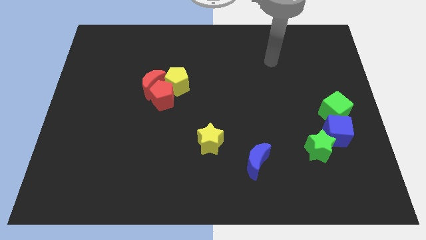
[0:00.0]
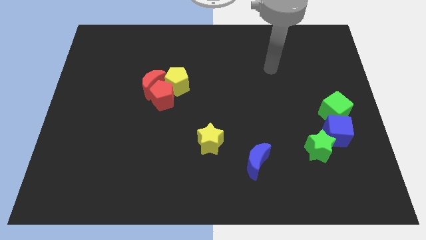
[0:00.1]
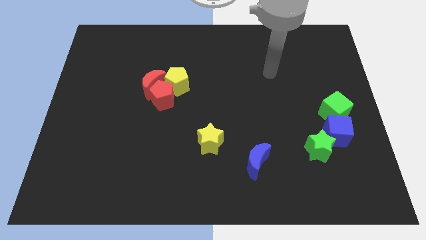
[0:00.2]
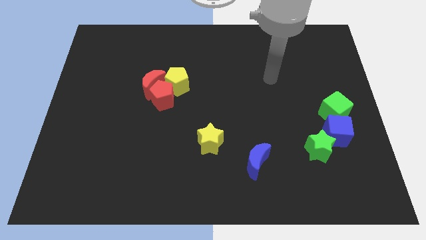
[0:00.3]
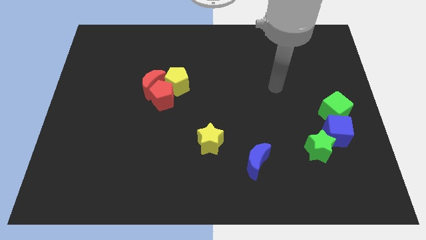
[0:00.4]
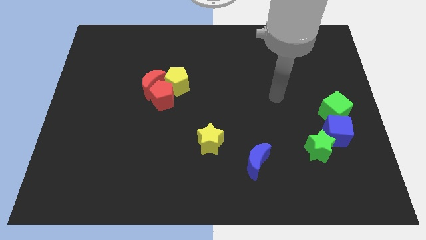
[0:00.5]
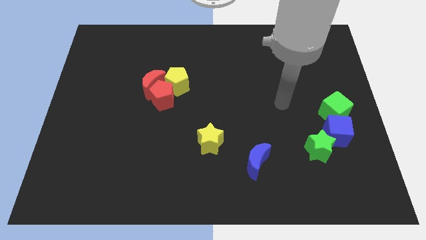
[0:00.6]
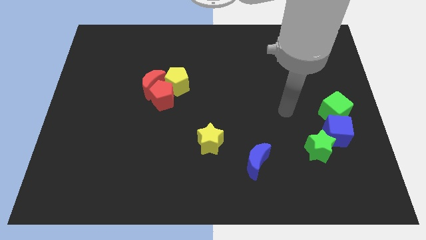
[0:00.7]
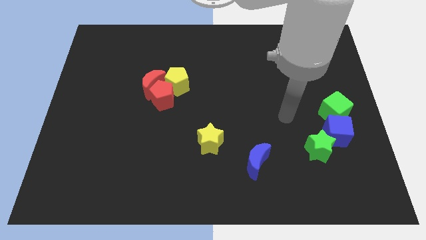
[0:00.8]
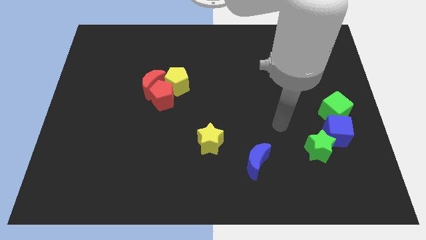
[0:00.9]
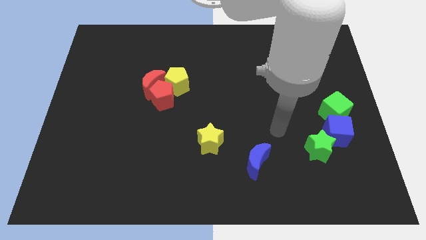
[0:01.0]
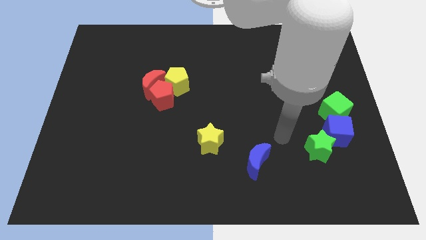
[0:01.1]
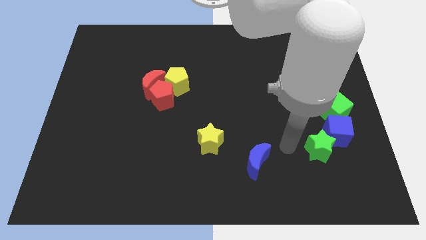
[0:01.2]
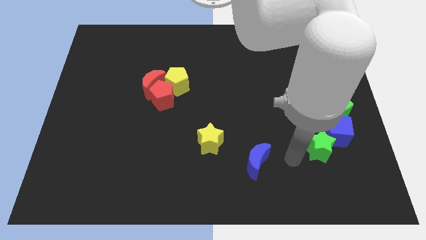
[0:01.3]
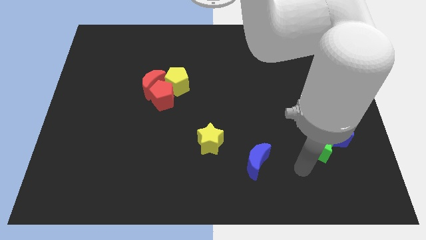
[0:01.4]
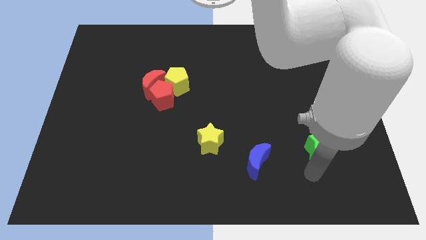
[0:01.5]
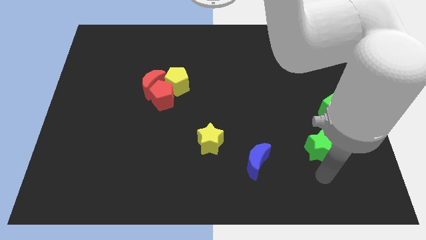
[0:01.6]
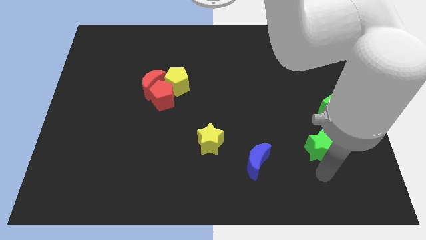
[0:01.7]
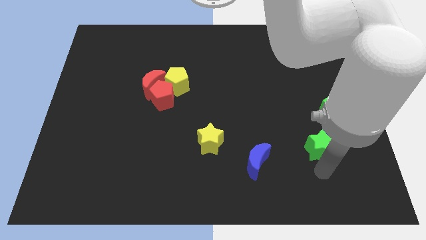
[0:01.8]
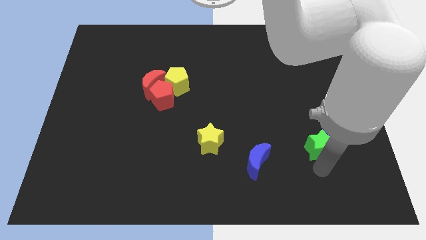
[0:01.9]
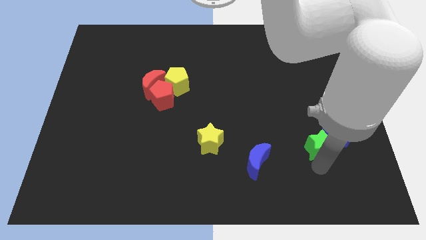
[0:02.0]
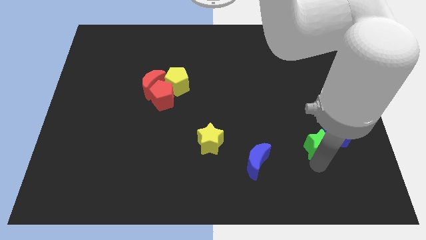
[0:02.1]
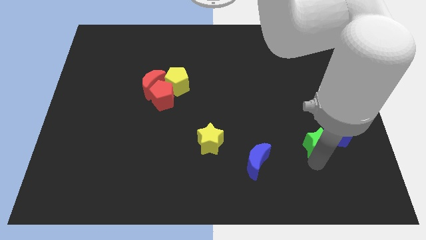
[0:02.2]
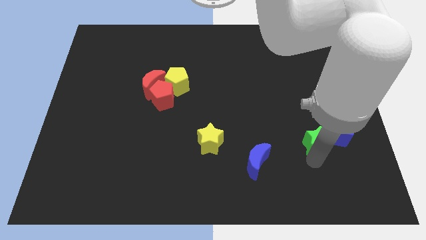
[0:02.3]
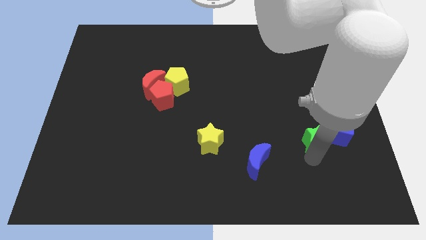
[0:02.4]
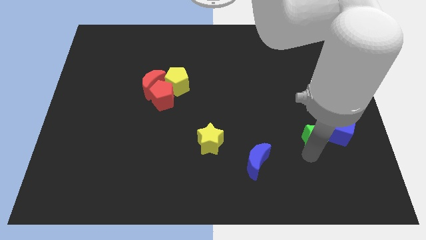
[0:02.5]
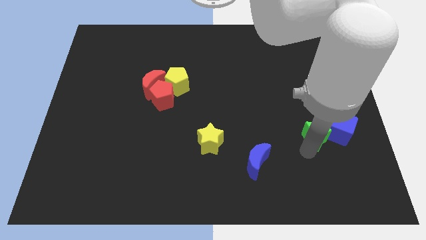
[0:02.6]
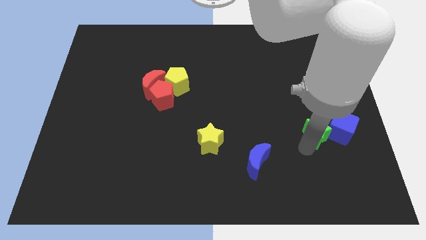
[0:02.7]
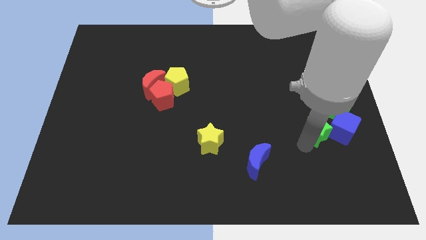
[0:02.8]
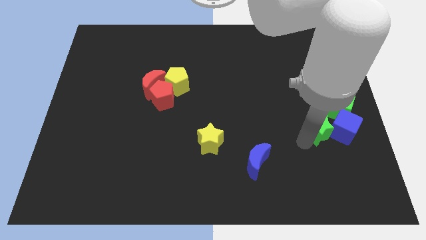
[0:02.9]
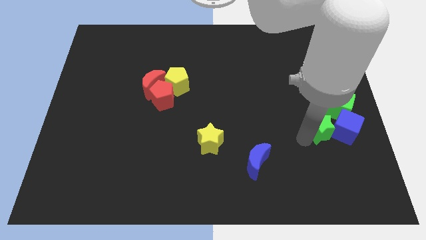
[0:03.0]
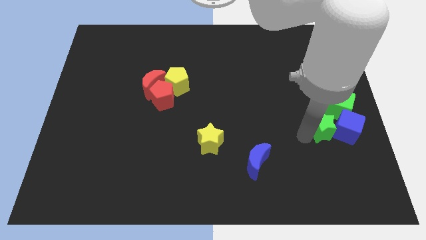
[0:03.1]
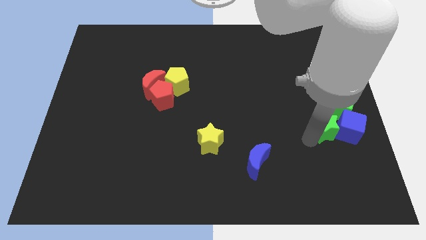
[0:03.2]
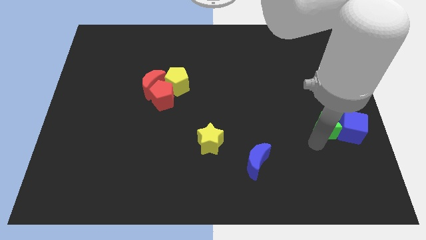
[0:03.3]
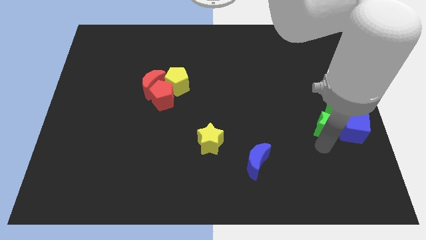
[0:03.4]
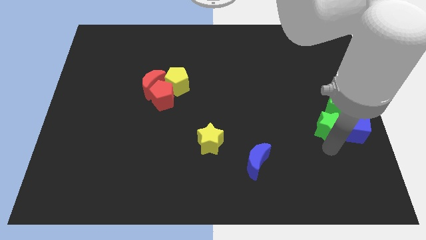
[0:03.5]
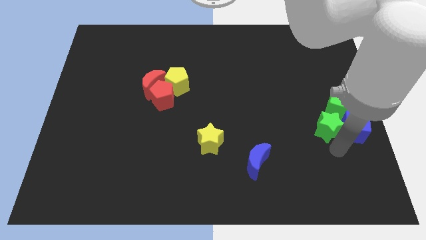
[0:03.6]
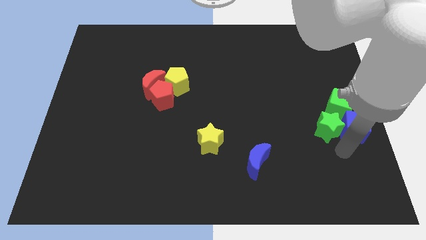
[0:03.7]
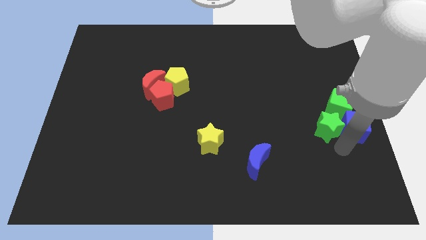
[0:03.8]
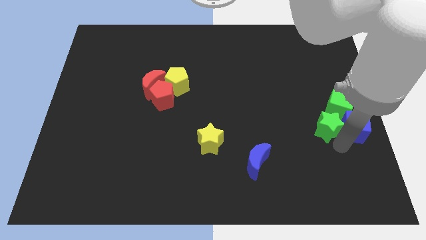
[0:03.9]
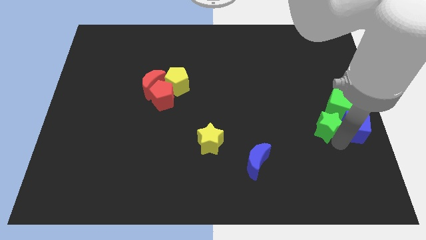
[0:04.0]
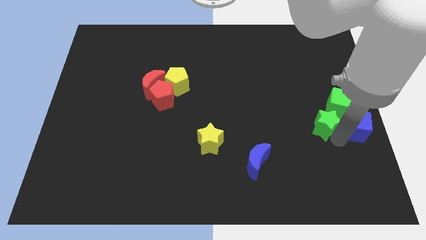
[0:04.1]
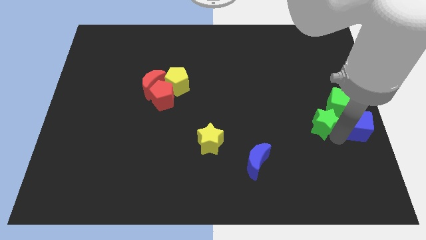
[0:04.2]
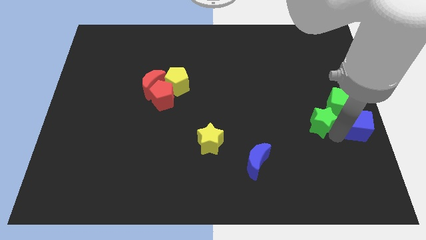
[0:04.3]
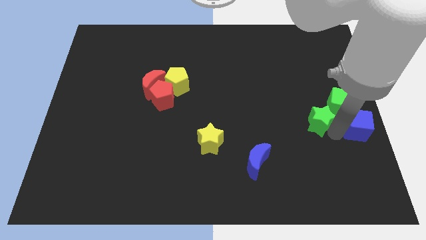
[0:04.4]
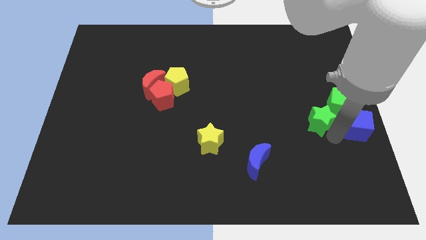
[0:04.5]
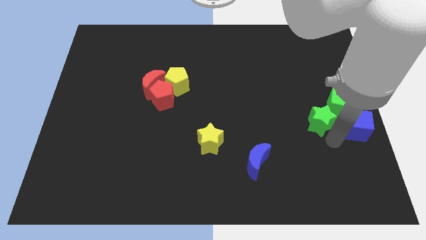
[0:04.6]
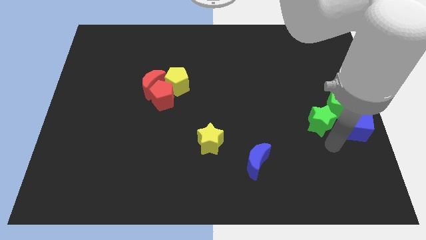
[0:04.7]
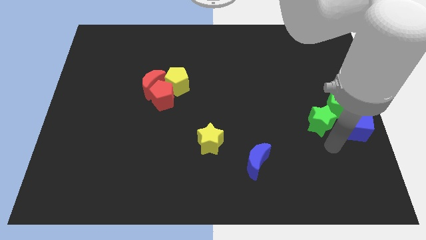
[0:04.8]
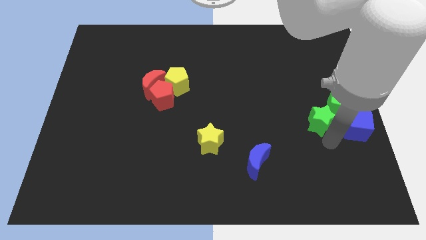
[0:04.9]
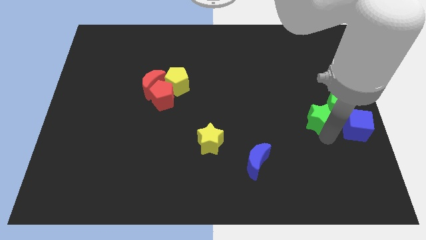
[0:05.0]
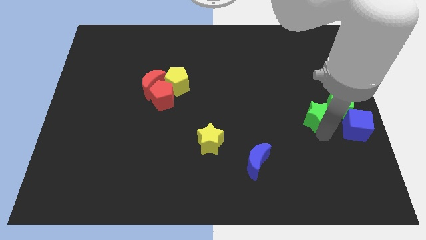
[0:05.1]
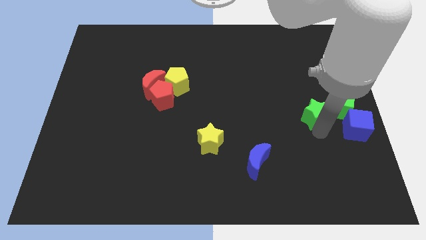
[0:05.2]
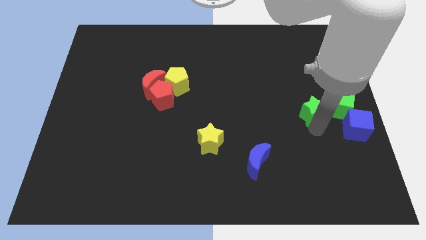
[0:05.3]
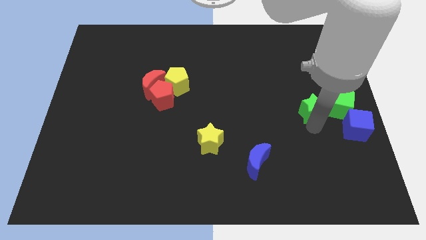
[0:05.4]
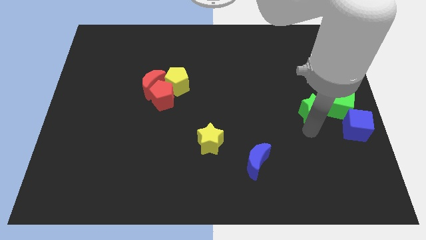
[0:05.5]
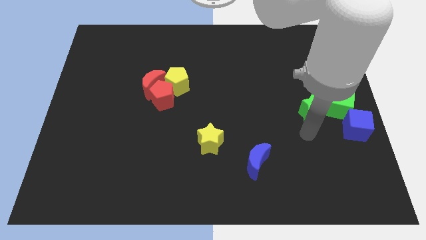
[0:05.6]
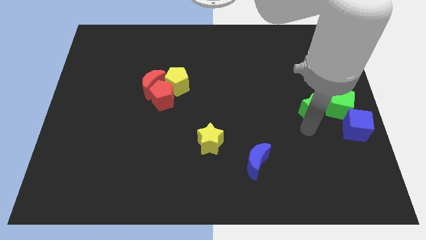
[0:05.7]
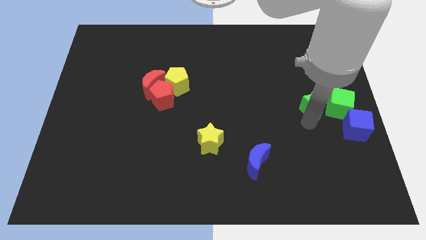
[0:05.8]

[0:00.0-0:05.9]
slide the green star to the top left side of the green cube

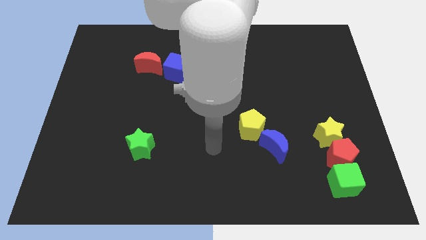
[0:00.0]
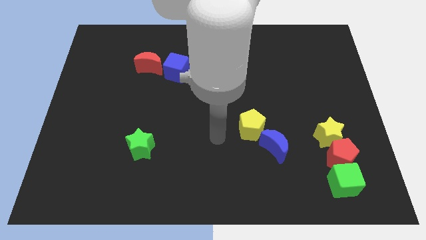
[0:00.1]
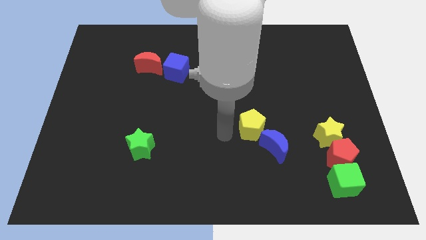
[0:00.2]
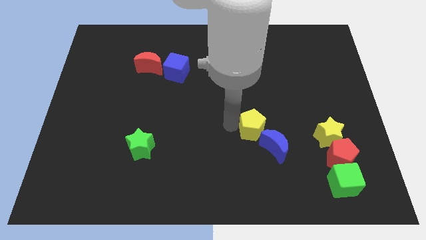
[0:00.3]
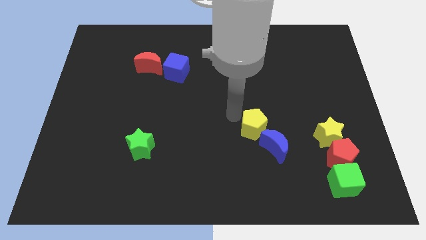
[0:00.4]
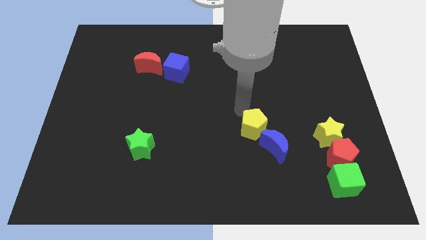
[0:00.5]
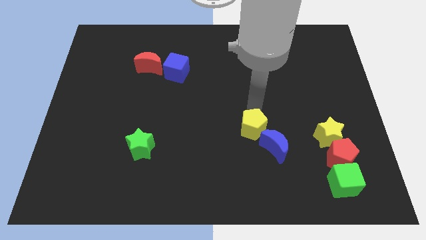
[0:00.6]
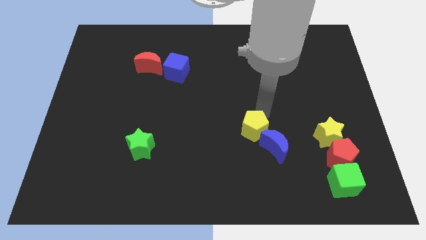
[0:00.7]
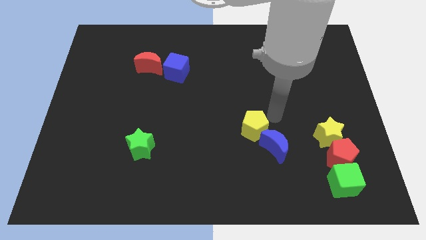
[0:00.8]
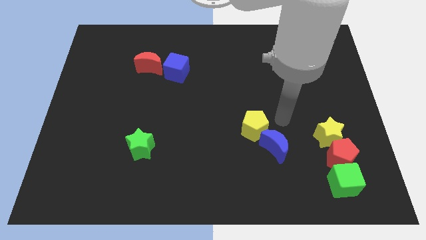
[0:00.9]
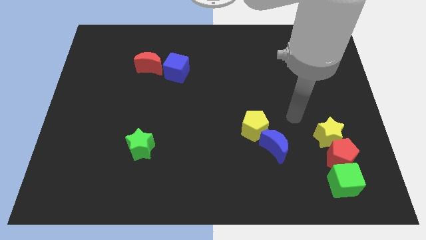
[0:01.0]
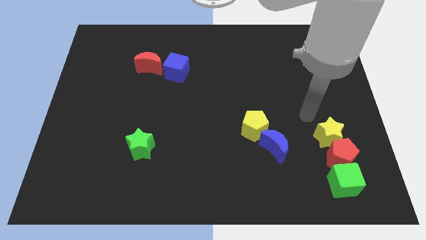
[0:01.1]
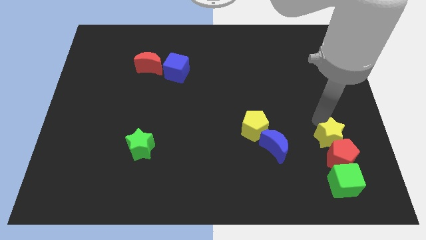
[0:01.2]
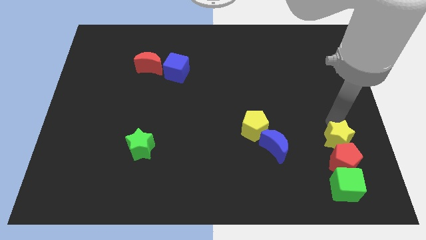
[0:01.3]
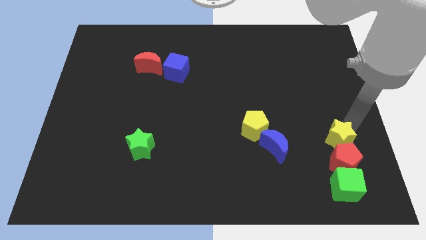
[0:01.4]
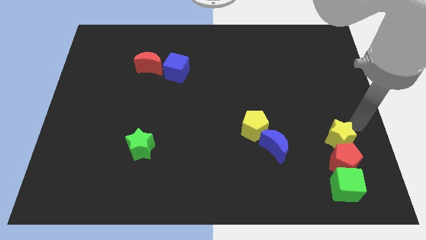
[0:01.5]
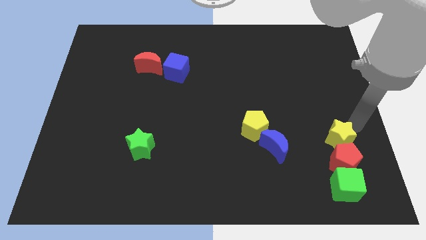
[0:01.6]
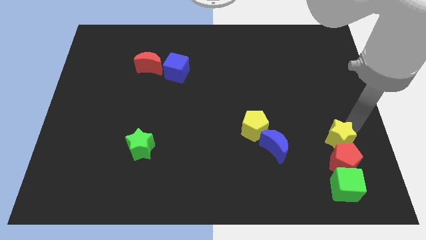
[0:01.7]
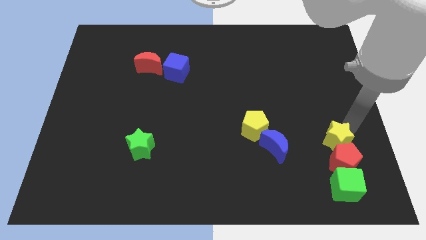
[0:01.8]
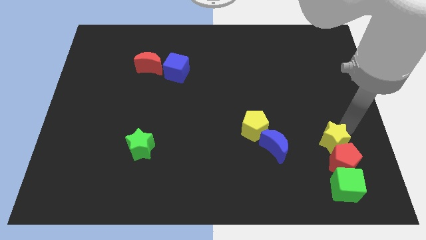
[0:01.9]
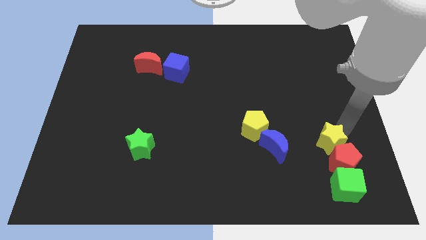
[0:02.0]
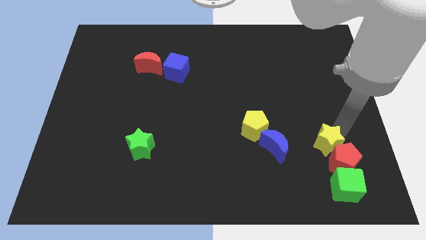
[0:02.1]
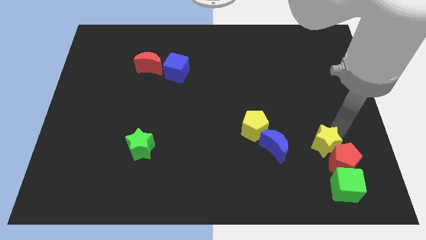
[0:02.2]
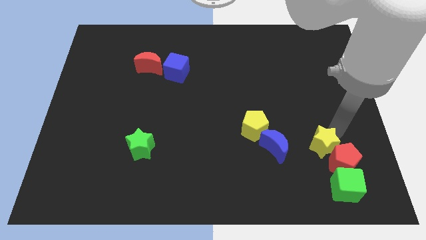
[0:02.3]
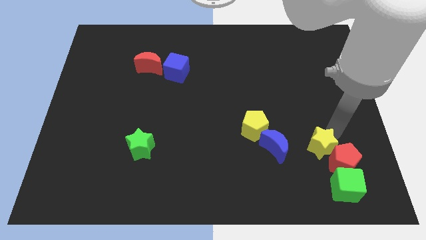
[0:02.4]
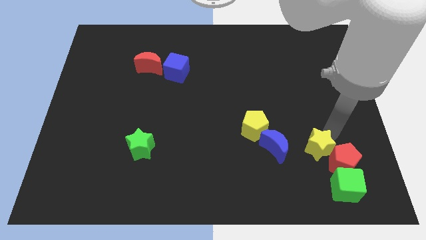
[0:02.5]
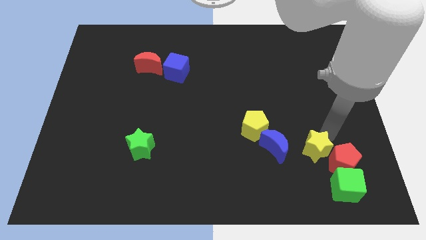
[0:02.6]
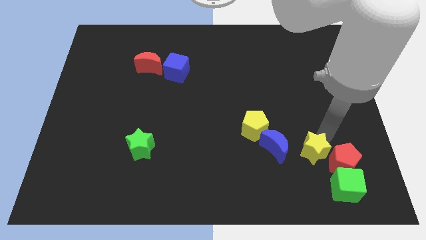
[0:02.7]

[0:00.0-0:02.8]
slide the yellow star to the bottom right of the blue moon
